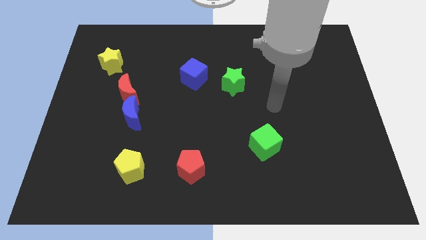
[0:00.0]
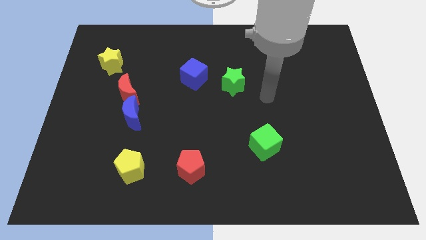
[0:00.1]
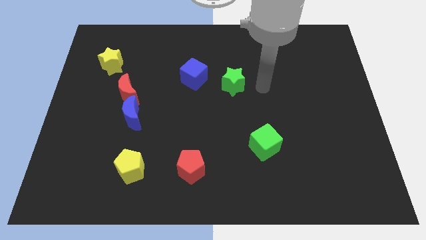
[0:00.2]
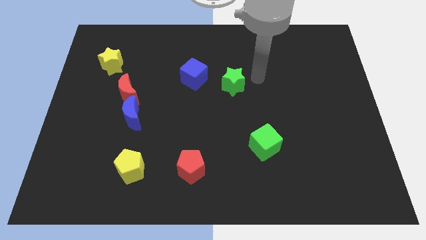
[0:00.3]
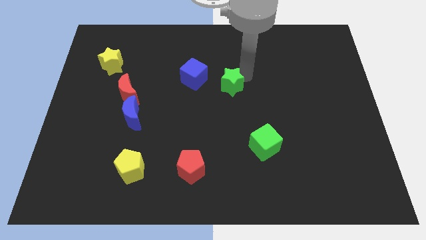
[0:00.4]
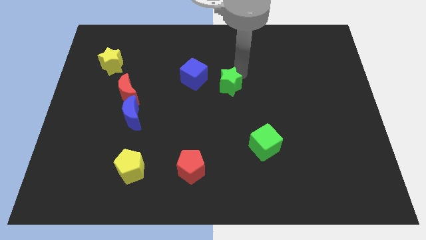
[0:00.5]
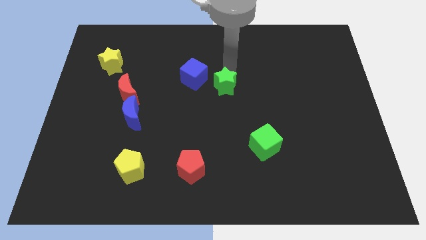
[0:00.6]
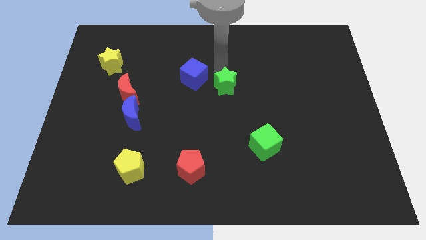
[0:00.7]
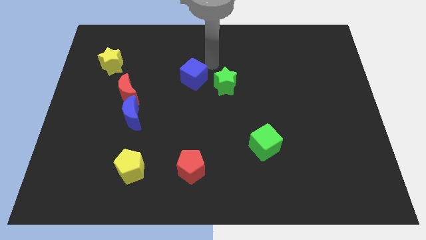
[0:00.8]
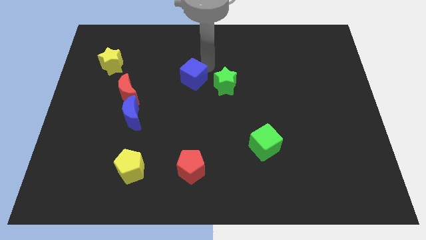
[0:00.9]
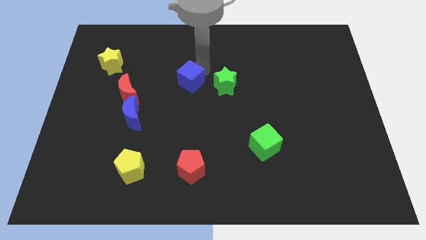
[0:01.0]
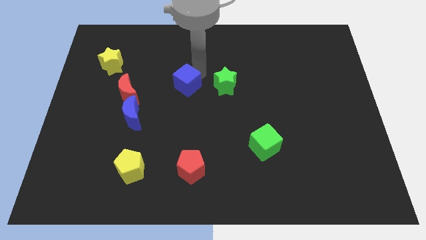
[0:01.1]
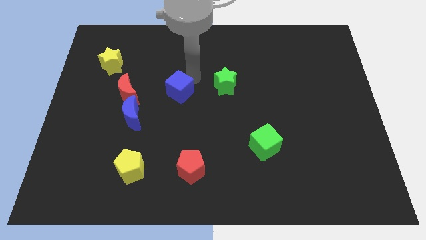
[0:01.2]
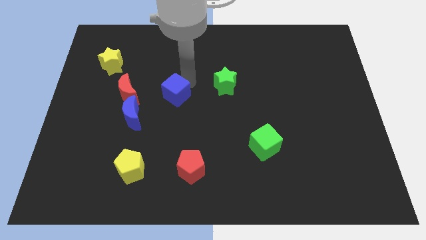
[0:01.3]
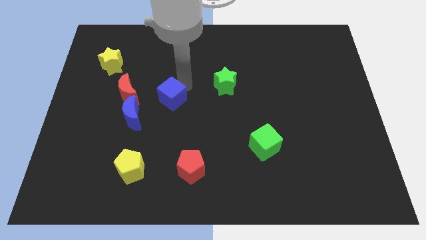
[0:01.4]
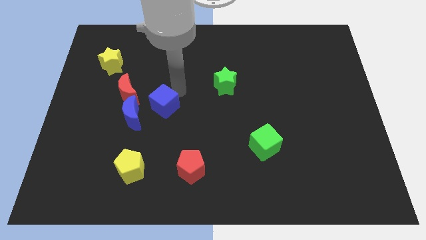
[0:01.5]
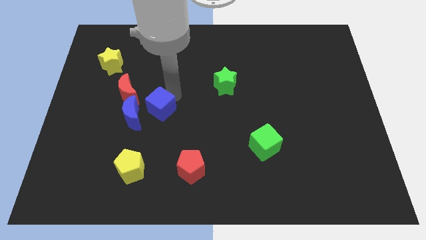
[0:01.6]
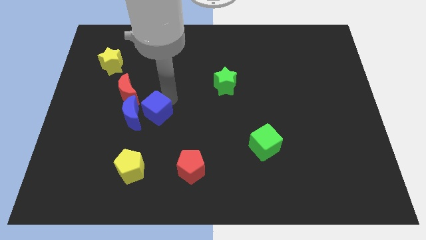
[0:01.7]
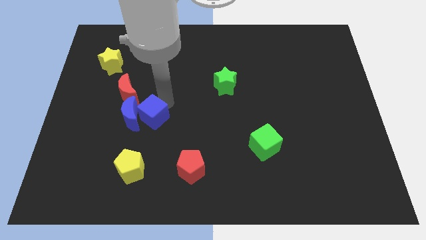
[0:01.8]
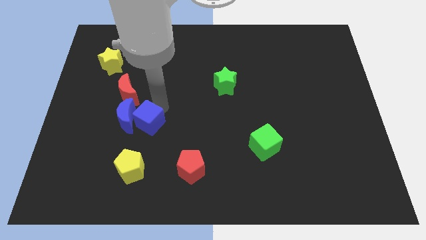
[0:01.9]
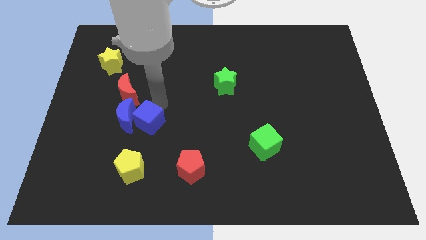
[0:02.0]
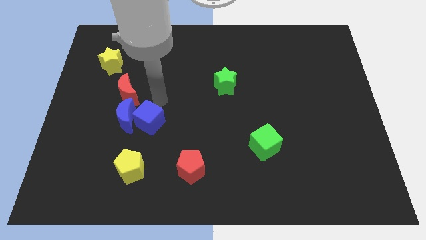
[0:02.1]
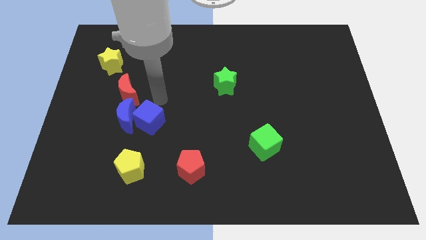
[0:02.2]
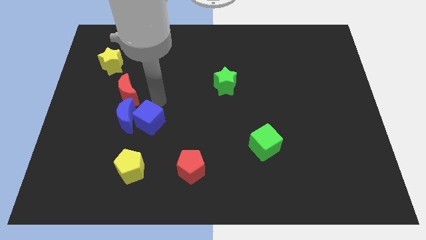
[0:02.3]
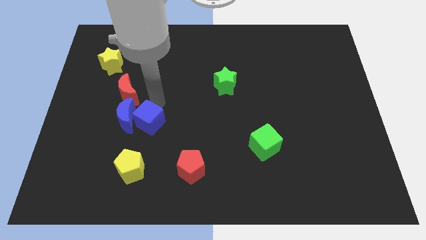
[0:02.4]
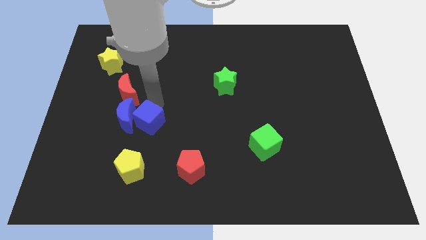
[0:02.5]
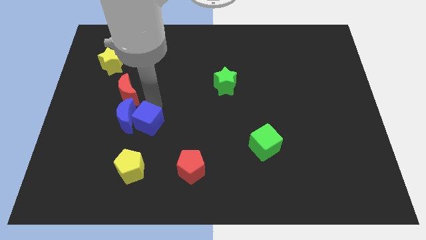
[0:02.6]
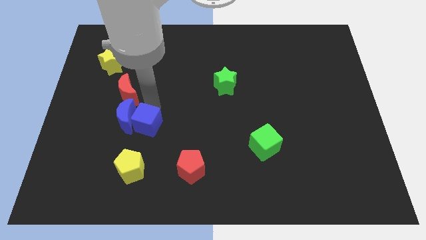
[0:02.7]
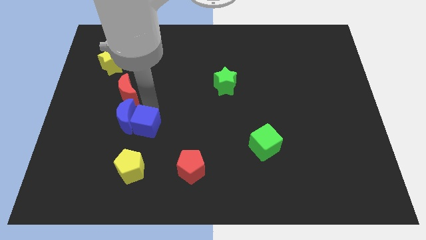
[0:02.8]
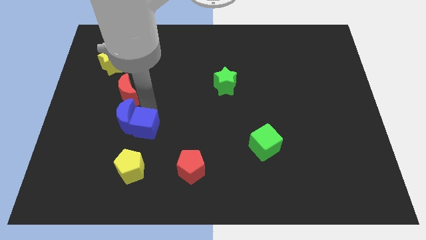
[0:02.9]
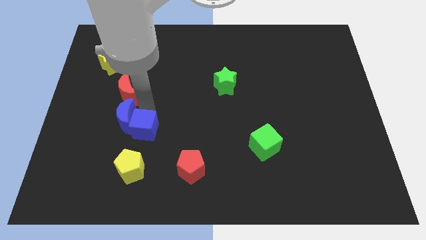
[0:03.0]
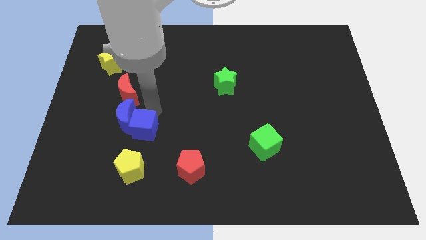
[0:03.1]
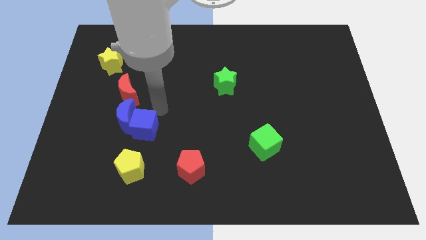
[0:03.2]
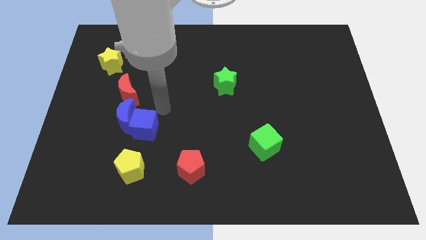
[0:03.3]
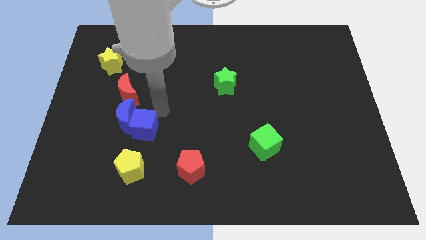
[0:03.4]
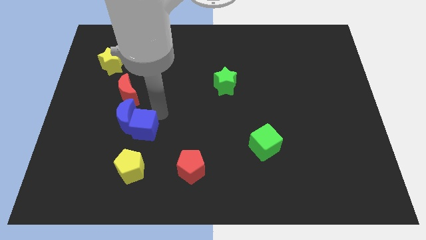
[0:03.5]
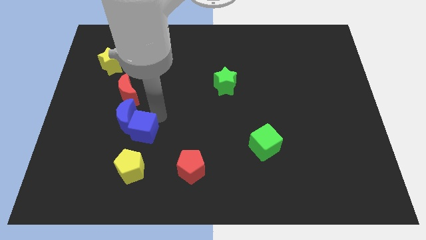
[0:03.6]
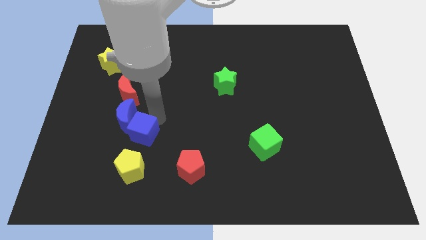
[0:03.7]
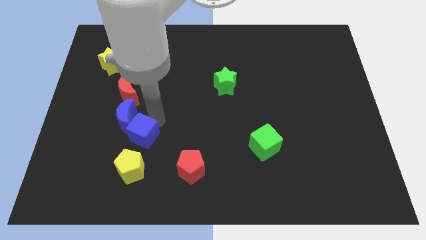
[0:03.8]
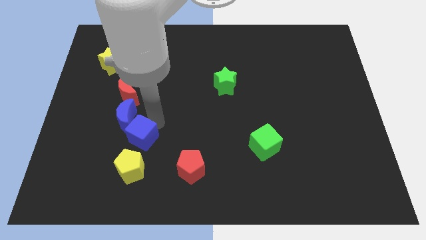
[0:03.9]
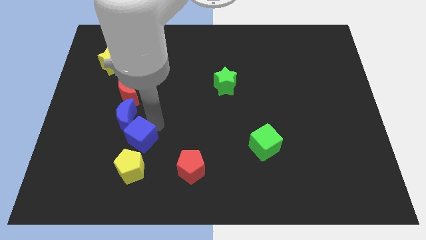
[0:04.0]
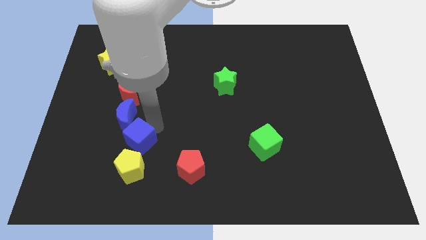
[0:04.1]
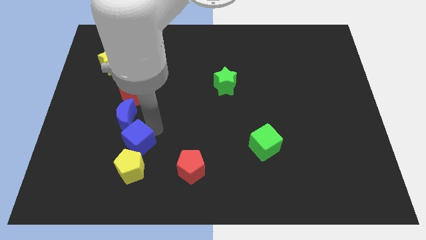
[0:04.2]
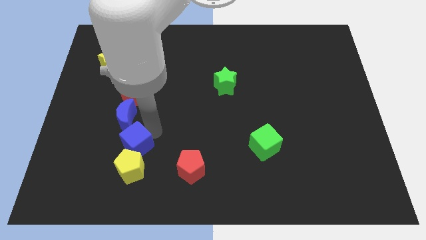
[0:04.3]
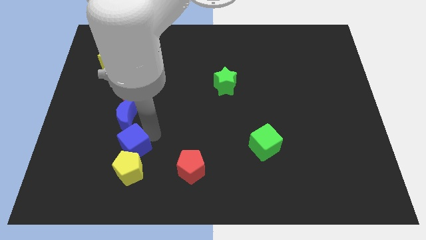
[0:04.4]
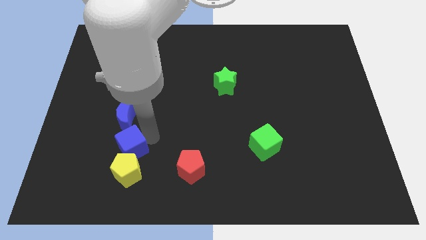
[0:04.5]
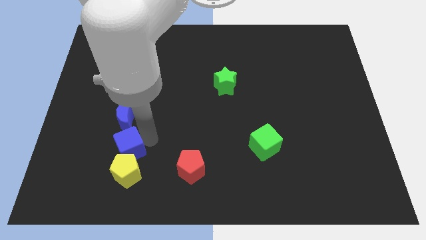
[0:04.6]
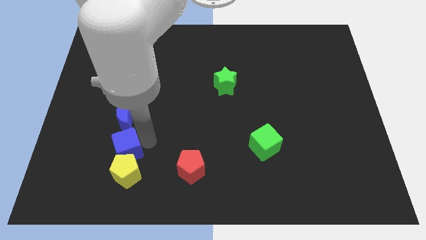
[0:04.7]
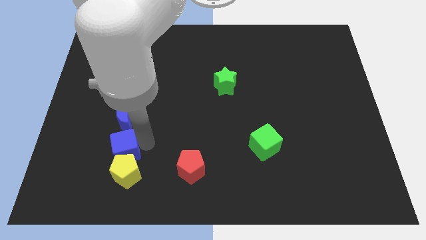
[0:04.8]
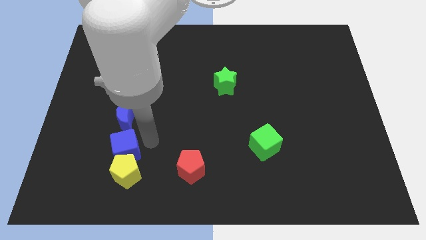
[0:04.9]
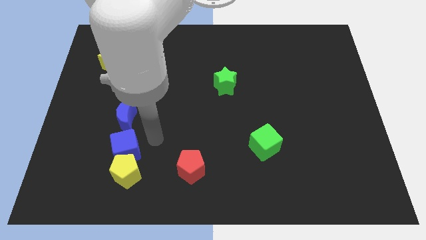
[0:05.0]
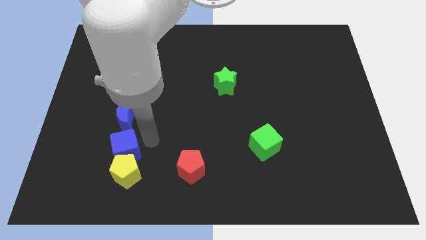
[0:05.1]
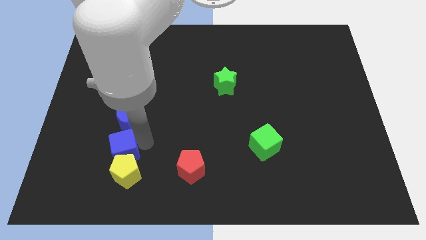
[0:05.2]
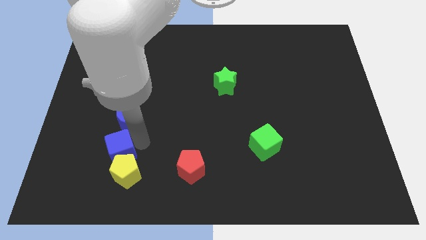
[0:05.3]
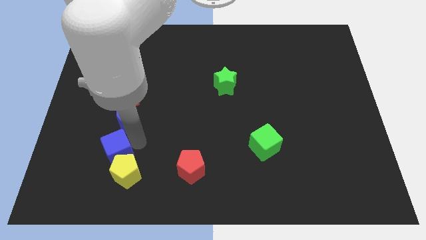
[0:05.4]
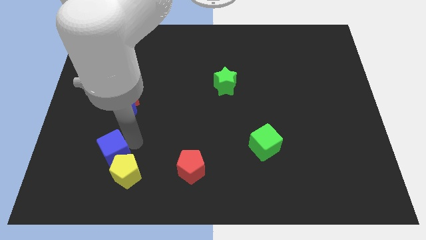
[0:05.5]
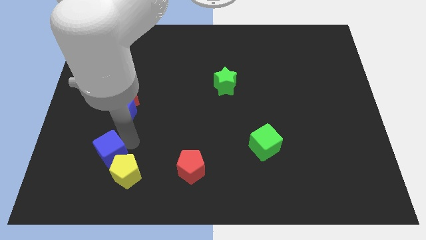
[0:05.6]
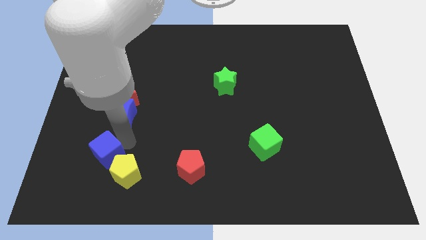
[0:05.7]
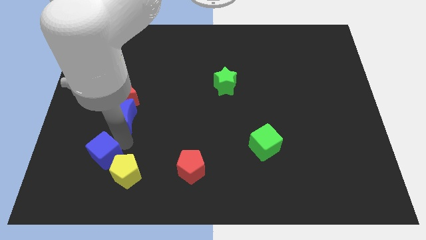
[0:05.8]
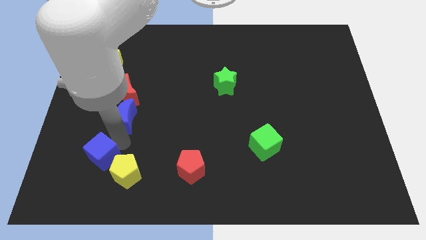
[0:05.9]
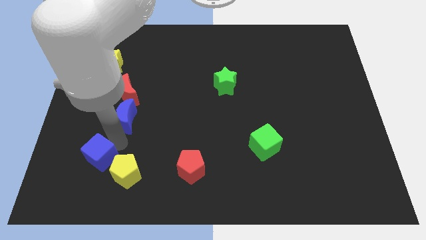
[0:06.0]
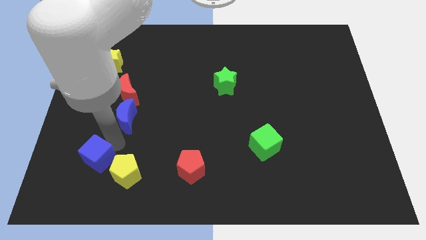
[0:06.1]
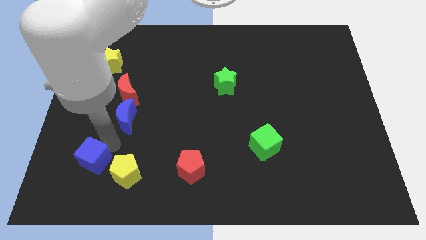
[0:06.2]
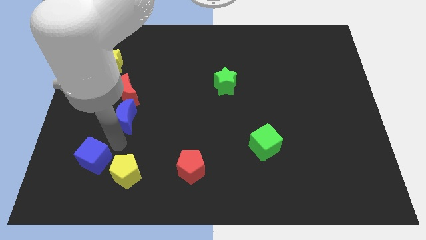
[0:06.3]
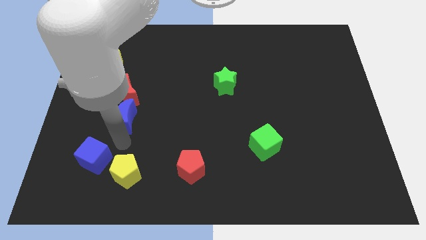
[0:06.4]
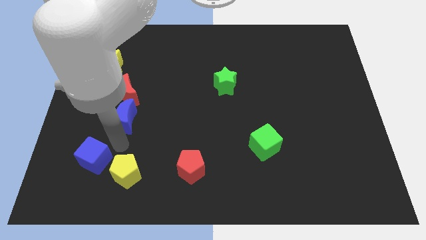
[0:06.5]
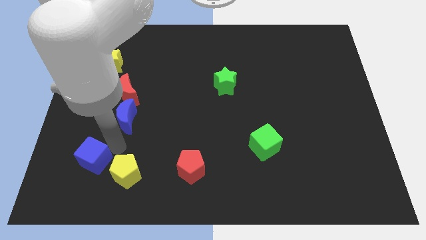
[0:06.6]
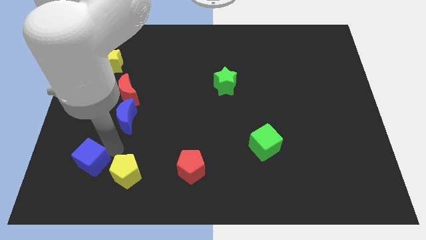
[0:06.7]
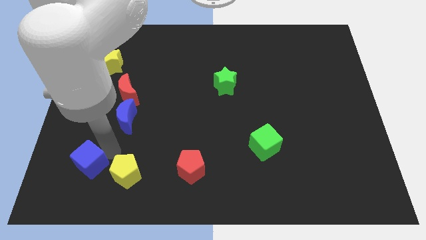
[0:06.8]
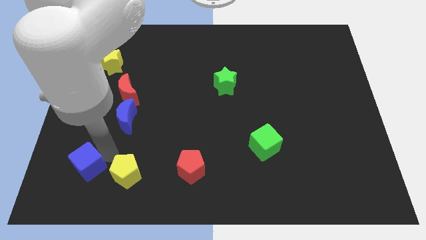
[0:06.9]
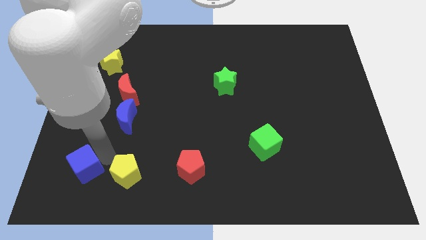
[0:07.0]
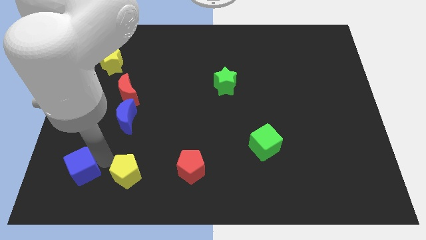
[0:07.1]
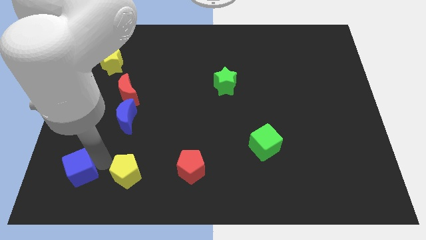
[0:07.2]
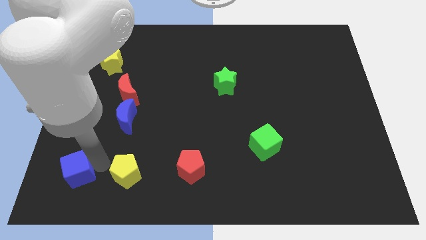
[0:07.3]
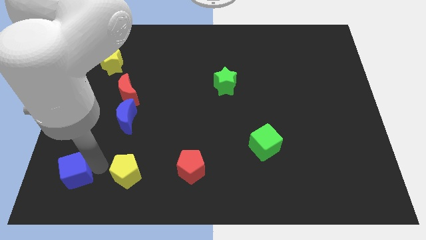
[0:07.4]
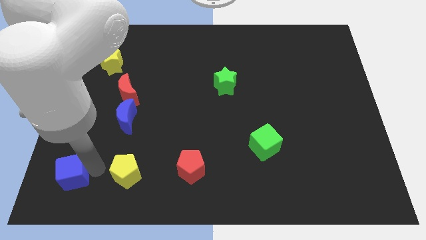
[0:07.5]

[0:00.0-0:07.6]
put the blue cube to the bottom left
